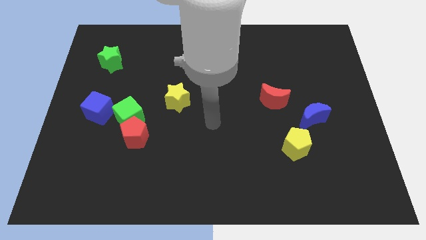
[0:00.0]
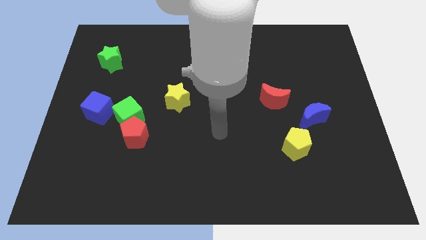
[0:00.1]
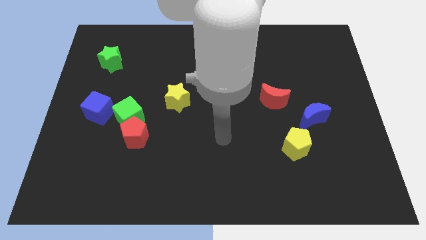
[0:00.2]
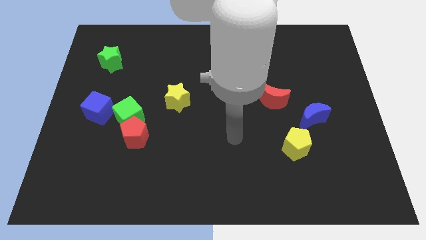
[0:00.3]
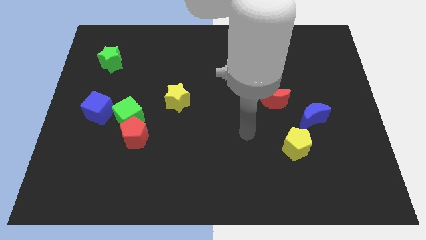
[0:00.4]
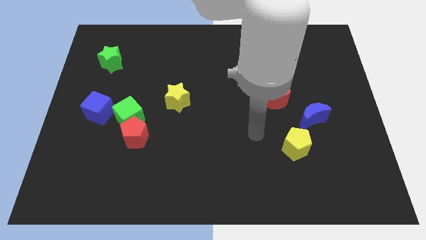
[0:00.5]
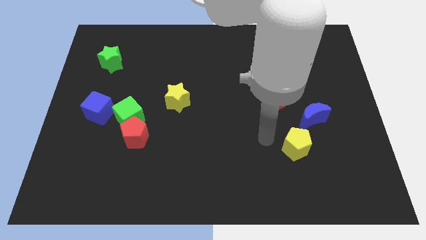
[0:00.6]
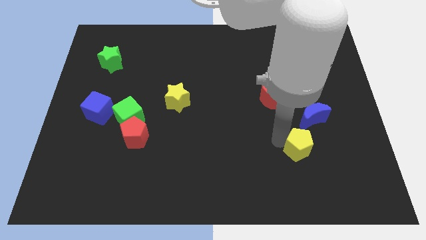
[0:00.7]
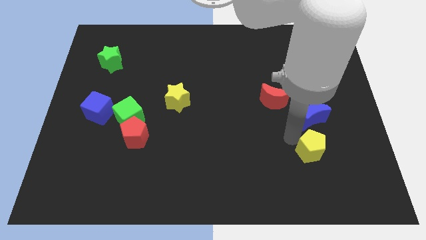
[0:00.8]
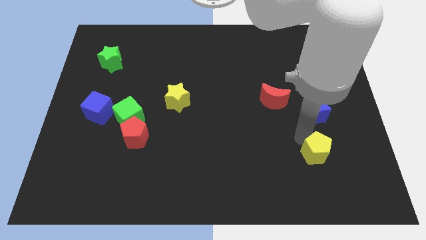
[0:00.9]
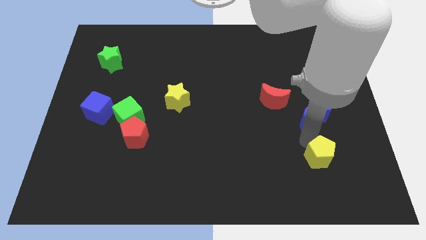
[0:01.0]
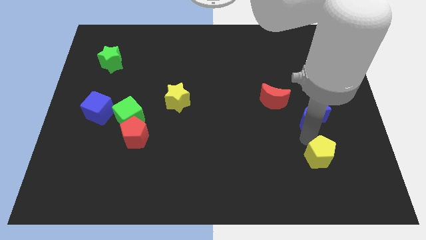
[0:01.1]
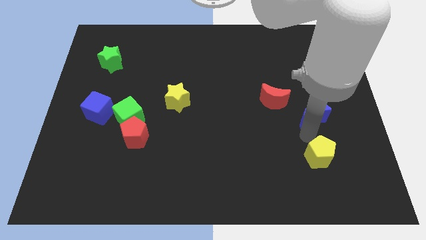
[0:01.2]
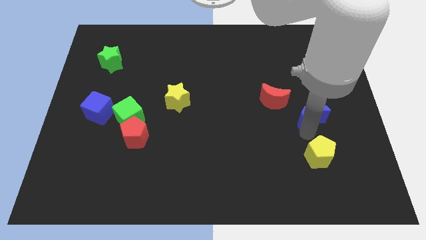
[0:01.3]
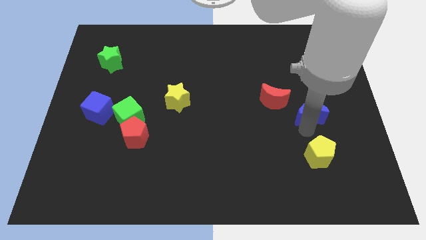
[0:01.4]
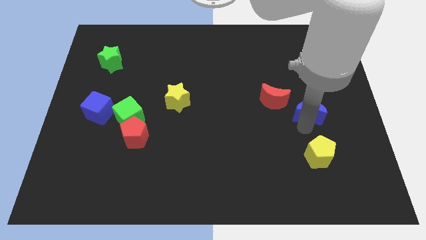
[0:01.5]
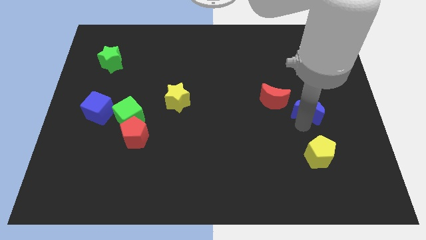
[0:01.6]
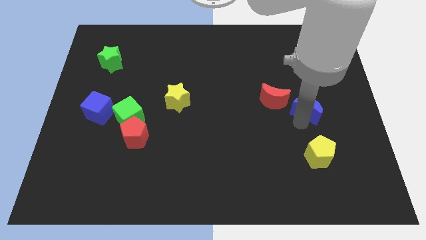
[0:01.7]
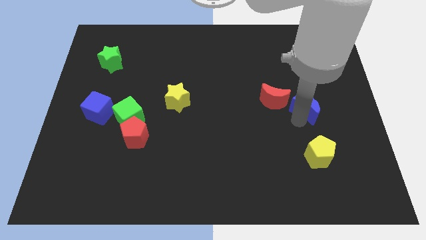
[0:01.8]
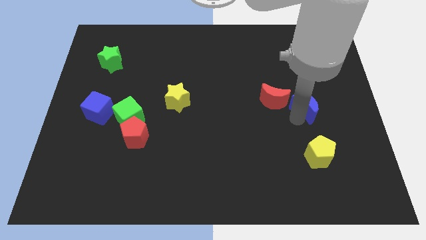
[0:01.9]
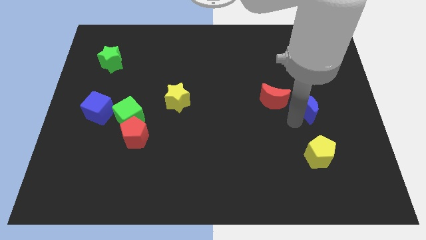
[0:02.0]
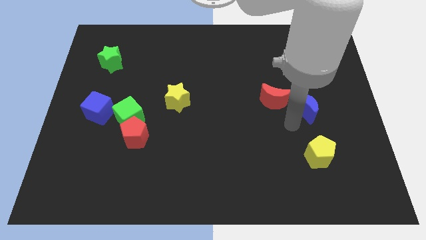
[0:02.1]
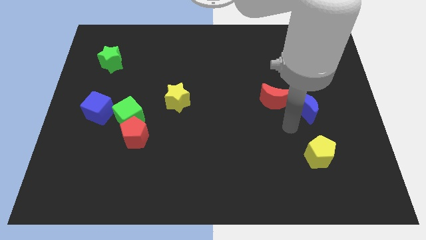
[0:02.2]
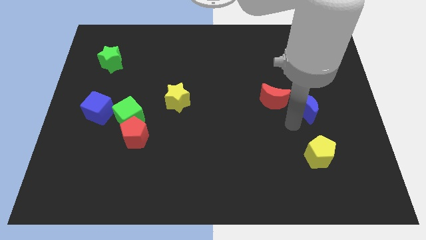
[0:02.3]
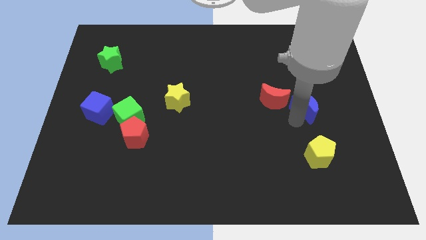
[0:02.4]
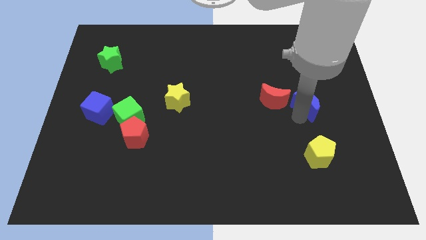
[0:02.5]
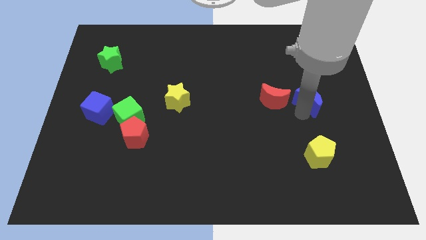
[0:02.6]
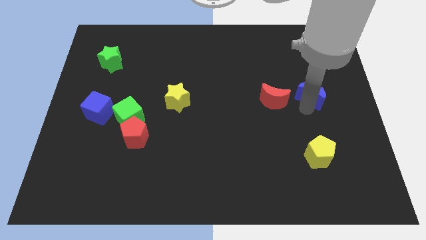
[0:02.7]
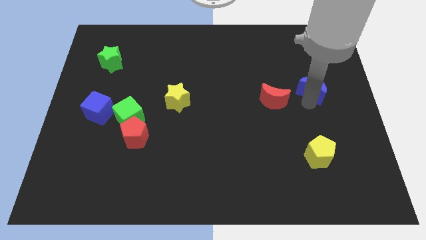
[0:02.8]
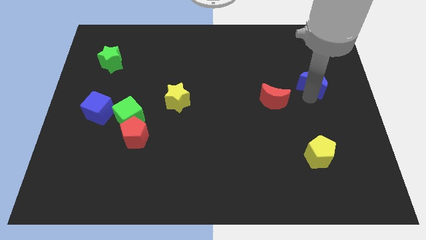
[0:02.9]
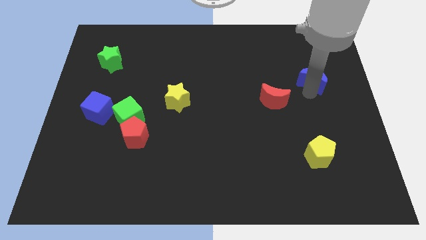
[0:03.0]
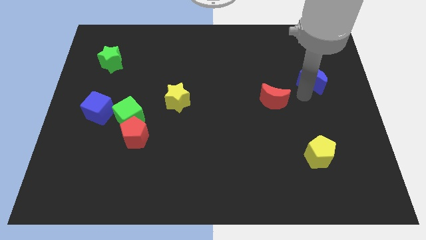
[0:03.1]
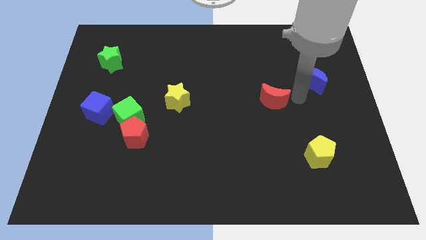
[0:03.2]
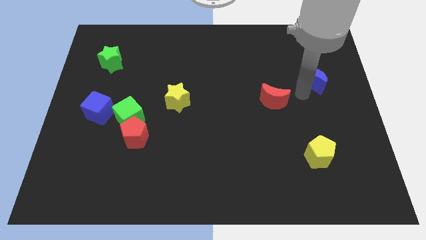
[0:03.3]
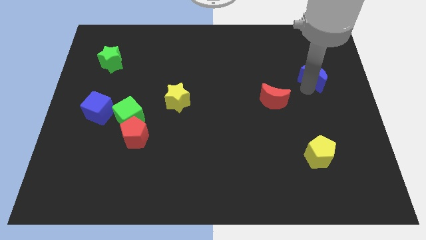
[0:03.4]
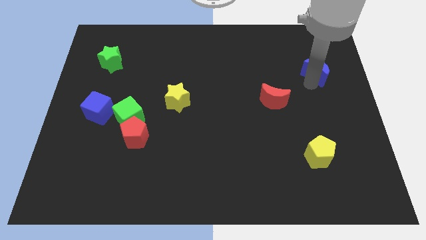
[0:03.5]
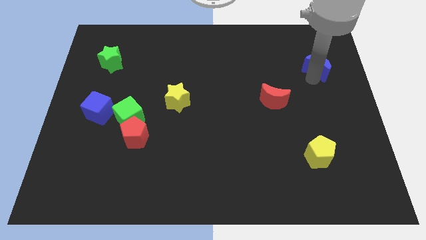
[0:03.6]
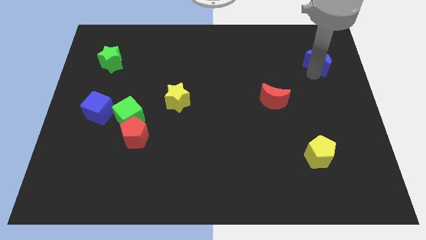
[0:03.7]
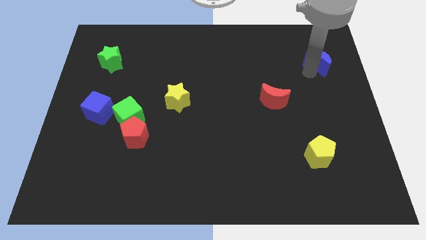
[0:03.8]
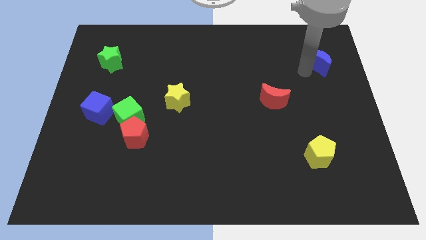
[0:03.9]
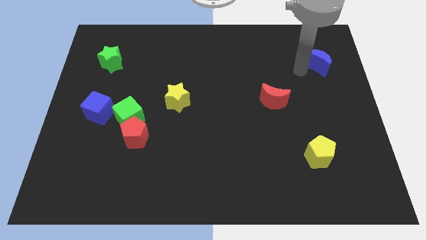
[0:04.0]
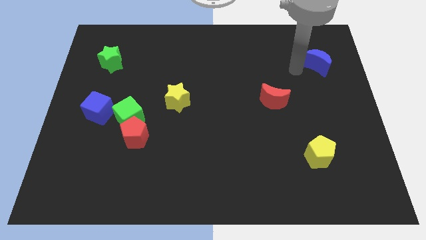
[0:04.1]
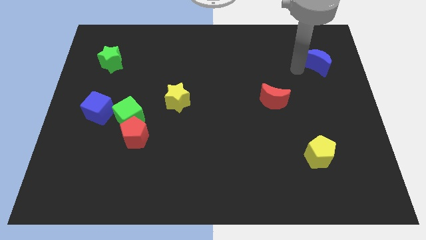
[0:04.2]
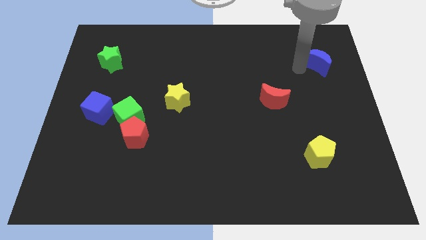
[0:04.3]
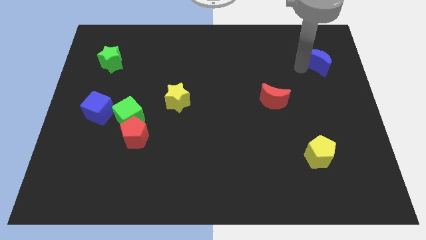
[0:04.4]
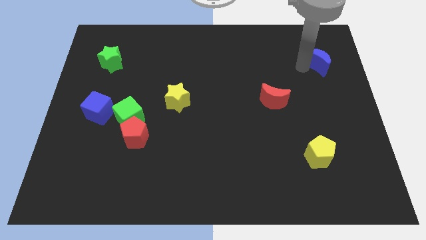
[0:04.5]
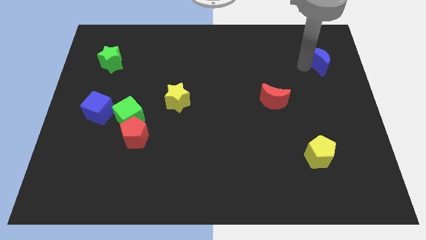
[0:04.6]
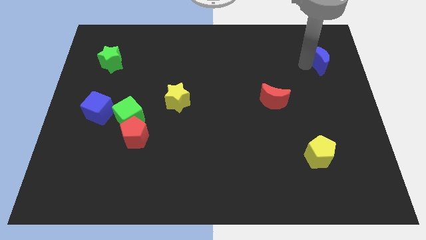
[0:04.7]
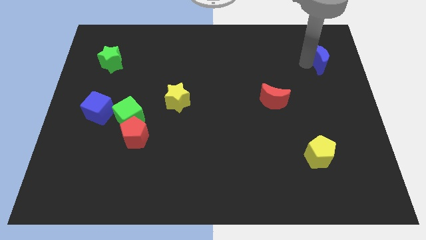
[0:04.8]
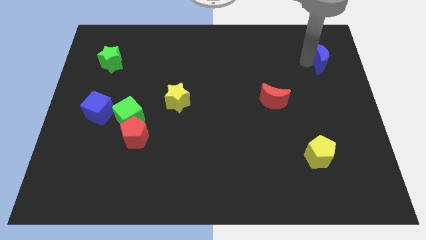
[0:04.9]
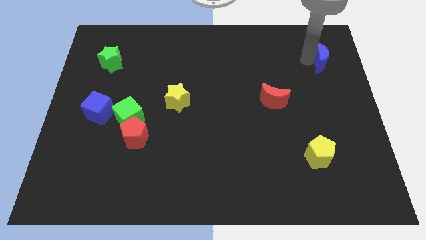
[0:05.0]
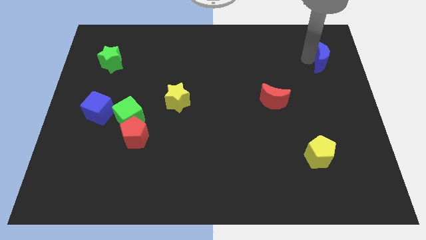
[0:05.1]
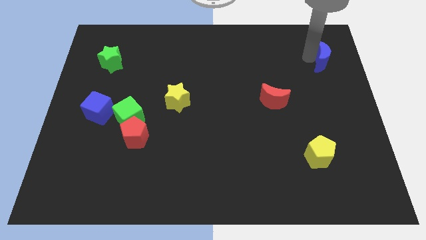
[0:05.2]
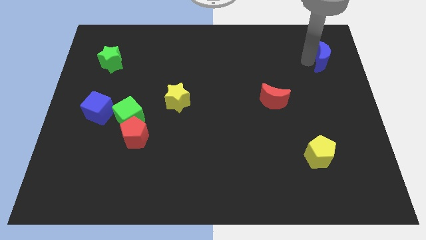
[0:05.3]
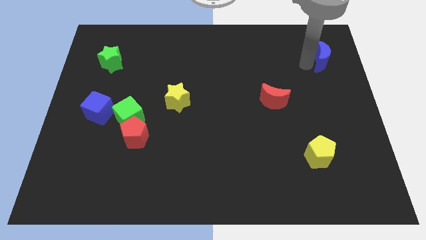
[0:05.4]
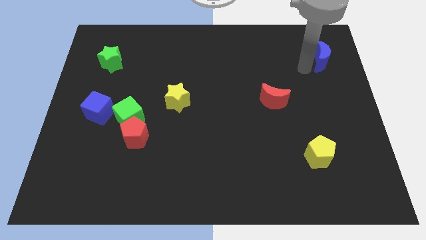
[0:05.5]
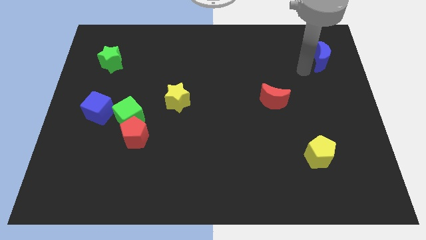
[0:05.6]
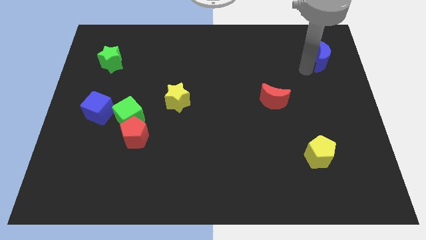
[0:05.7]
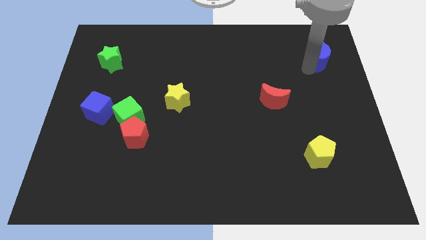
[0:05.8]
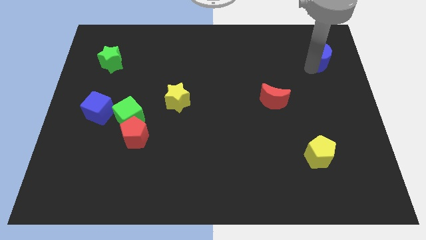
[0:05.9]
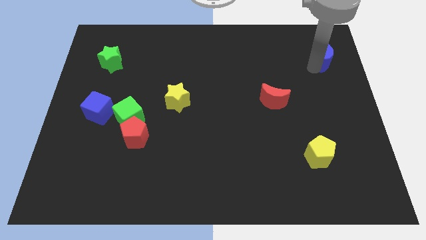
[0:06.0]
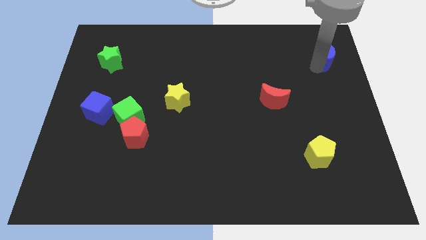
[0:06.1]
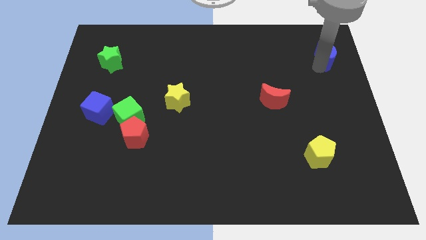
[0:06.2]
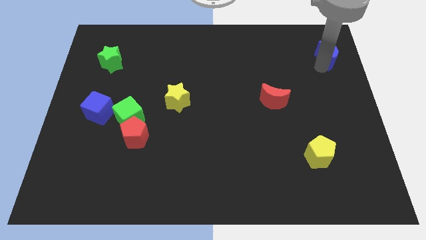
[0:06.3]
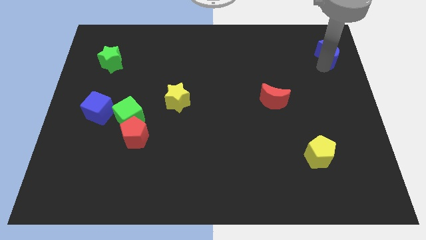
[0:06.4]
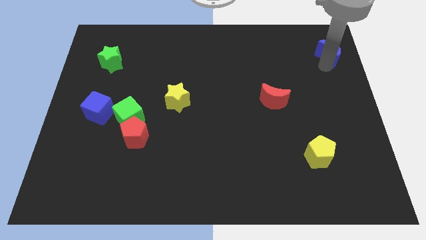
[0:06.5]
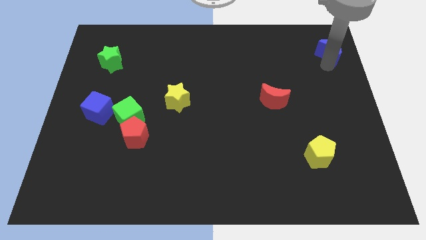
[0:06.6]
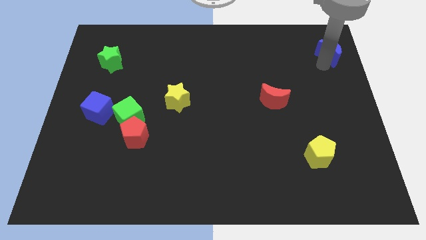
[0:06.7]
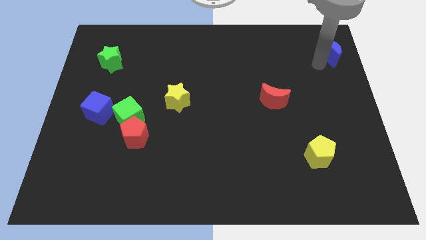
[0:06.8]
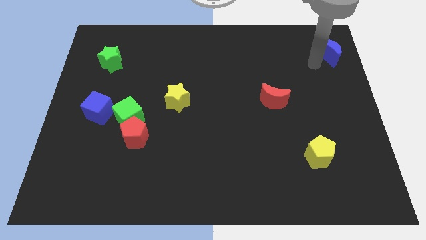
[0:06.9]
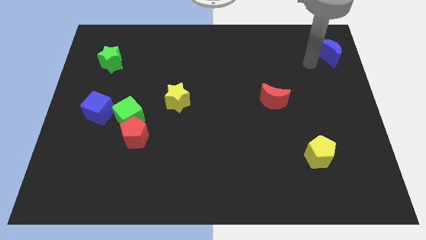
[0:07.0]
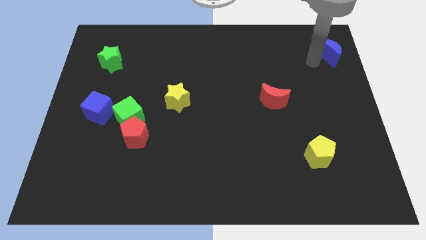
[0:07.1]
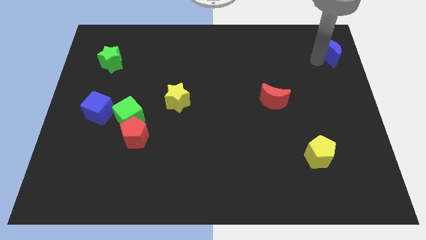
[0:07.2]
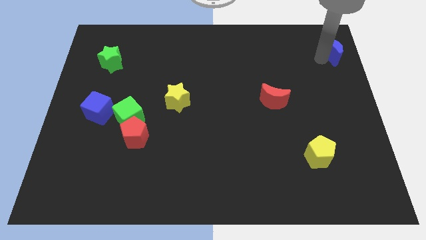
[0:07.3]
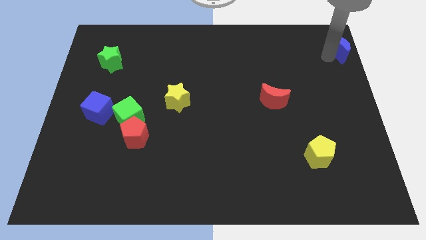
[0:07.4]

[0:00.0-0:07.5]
put the blue moon to the top right of the board

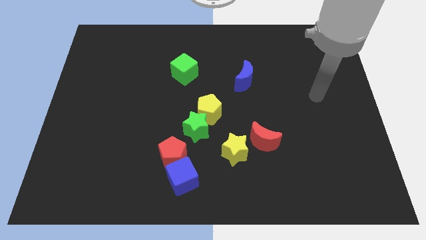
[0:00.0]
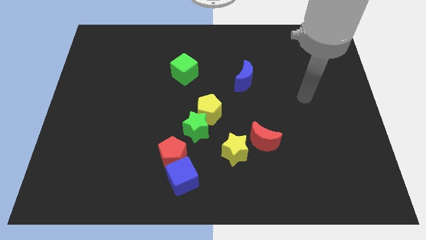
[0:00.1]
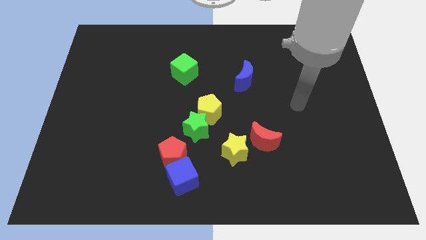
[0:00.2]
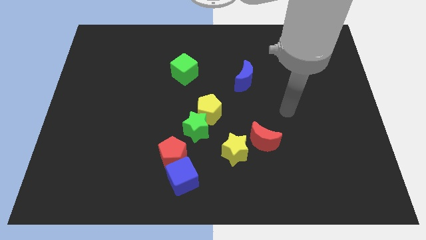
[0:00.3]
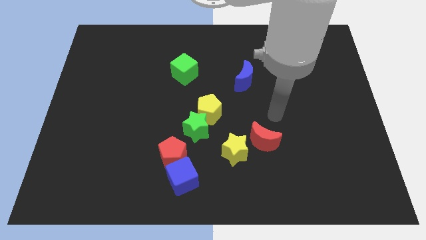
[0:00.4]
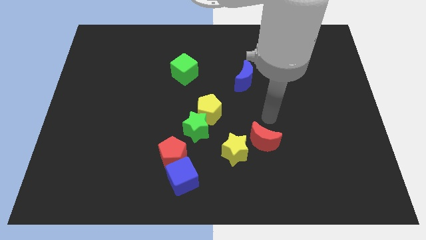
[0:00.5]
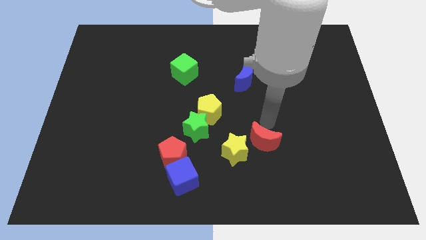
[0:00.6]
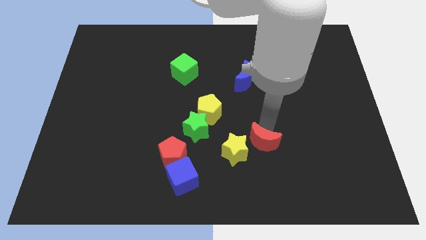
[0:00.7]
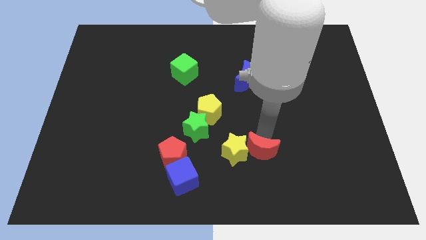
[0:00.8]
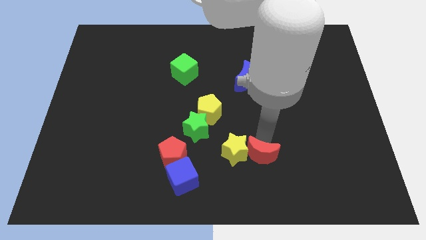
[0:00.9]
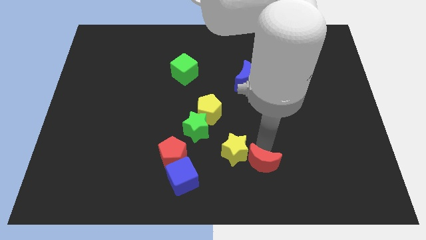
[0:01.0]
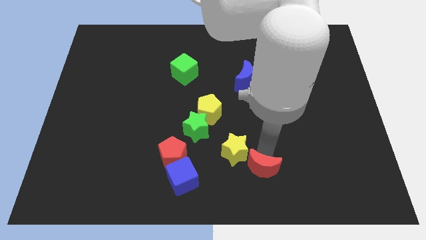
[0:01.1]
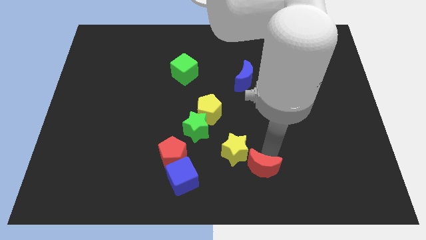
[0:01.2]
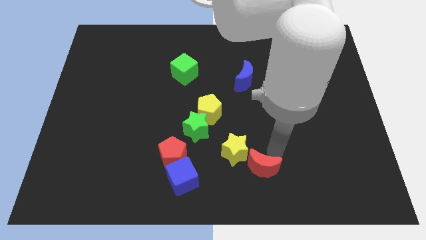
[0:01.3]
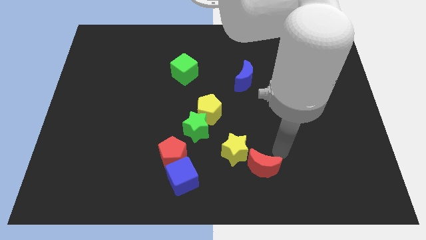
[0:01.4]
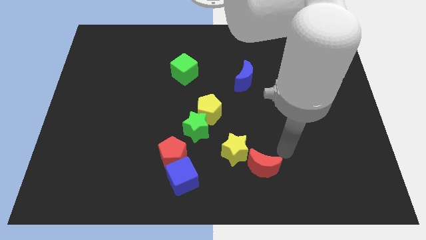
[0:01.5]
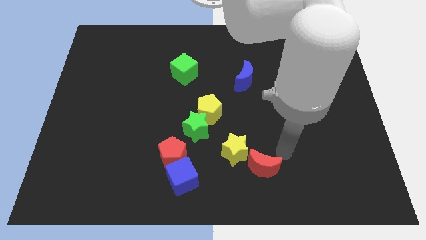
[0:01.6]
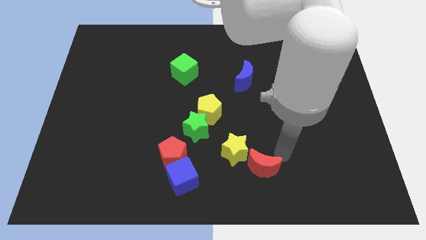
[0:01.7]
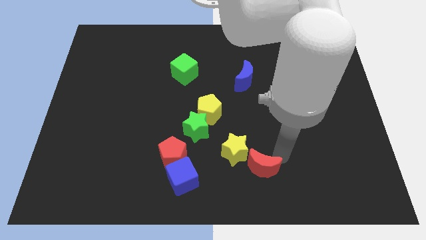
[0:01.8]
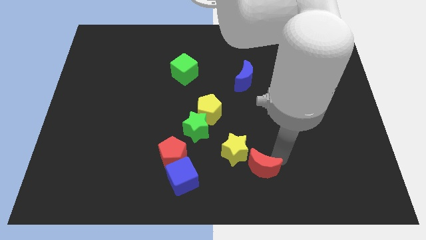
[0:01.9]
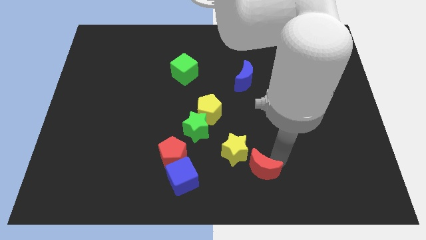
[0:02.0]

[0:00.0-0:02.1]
slide the red moon to the bottom side
